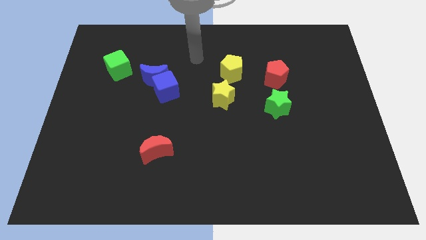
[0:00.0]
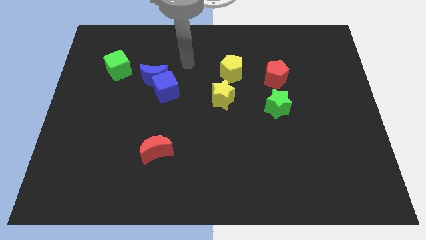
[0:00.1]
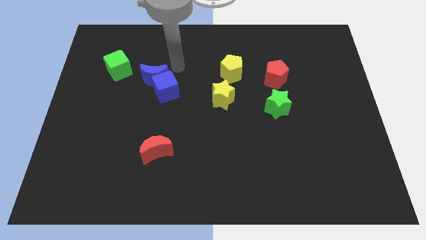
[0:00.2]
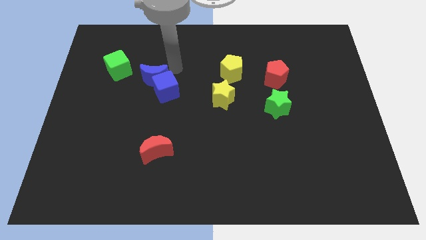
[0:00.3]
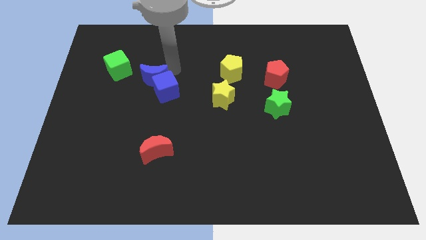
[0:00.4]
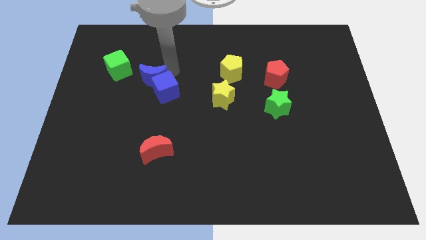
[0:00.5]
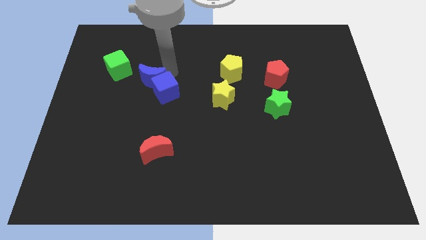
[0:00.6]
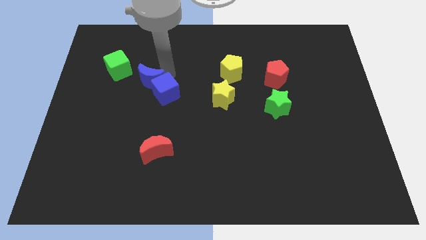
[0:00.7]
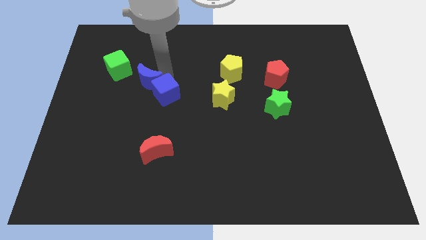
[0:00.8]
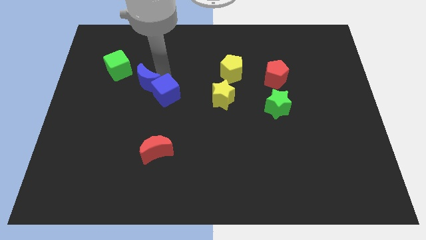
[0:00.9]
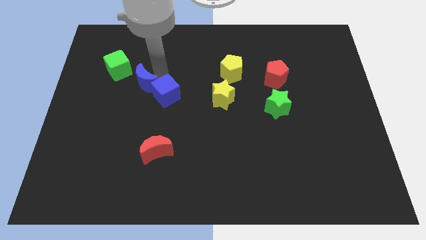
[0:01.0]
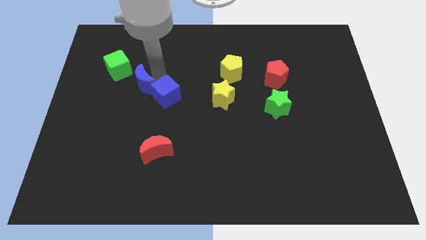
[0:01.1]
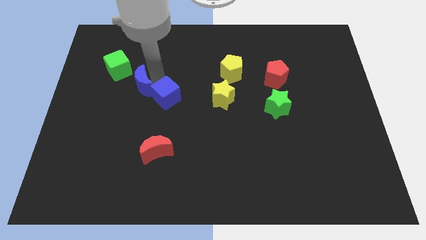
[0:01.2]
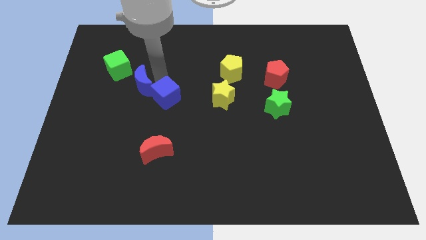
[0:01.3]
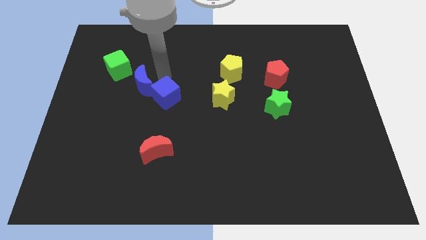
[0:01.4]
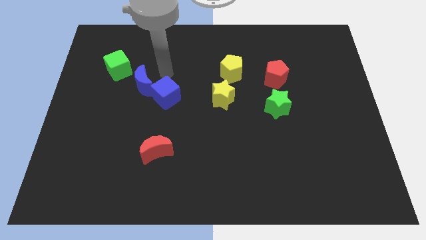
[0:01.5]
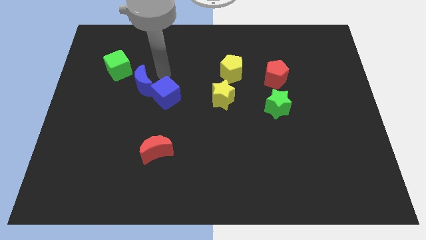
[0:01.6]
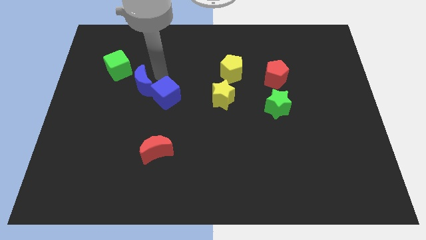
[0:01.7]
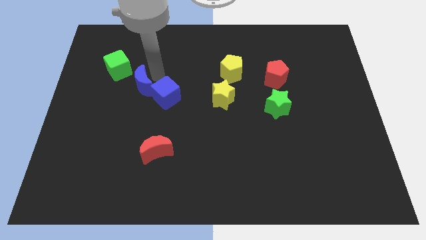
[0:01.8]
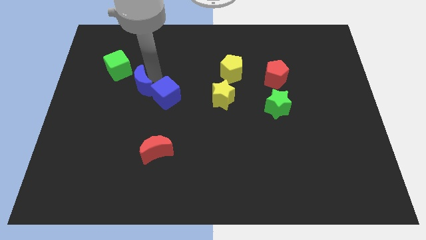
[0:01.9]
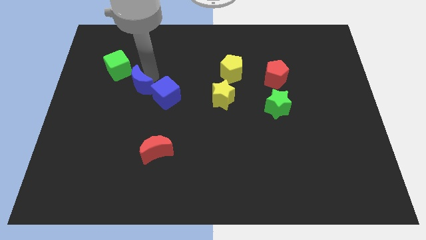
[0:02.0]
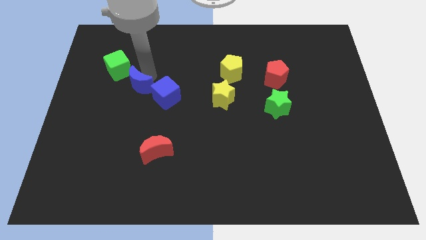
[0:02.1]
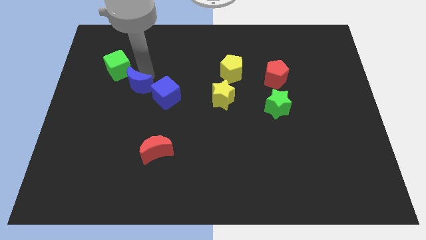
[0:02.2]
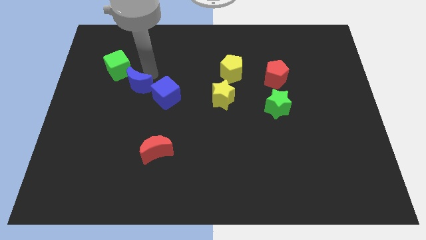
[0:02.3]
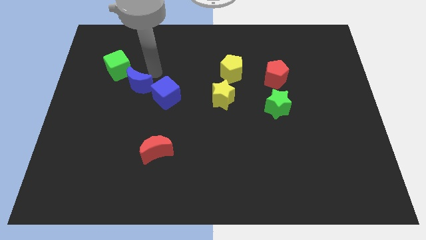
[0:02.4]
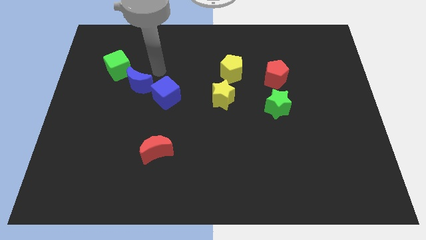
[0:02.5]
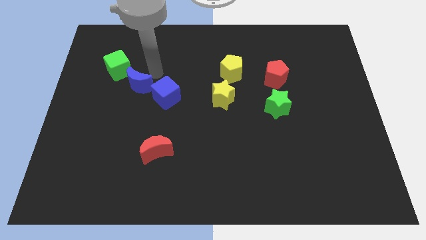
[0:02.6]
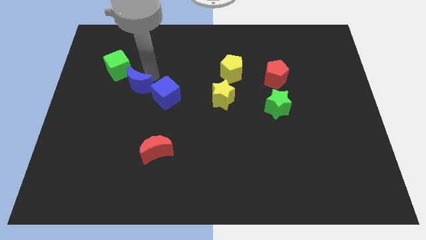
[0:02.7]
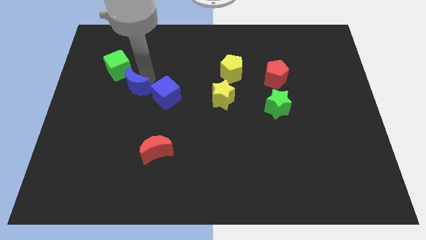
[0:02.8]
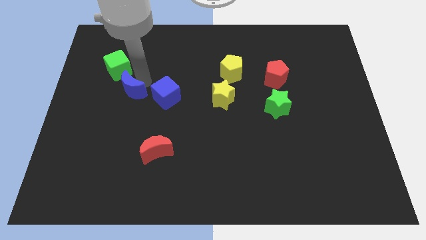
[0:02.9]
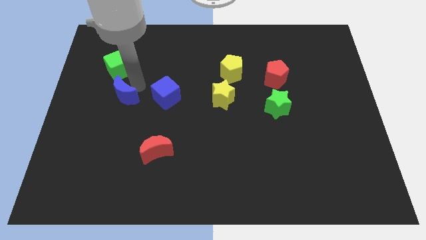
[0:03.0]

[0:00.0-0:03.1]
slightly push the blue moon downwards and left diagonally

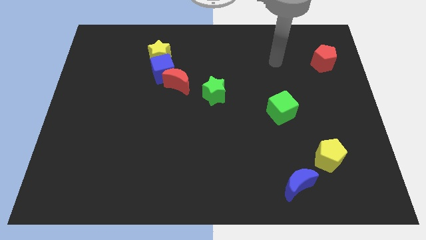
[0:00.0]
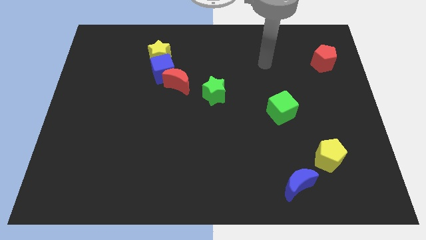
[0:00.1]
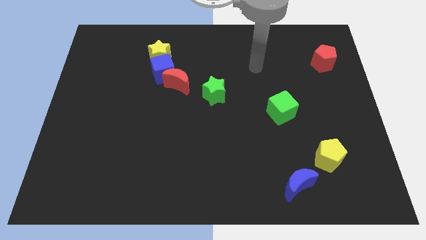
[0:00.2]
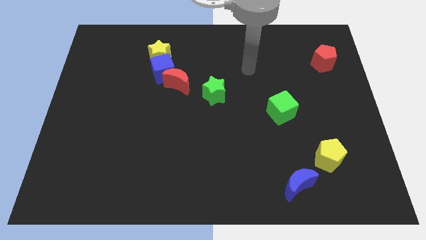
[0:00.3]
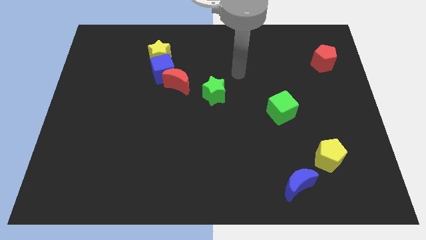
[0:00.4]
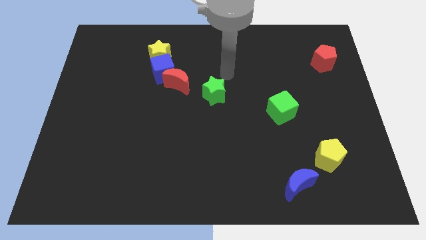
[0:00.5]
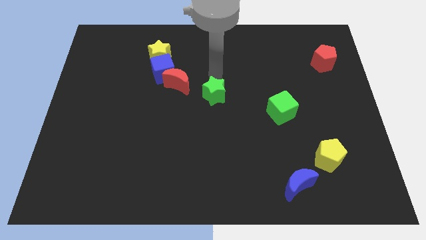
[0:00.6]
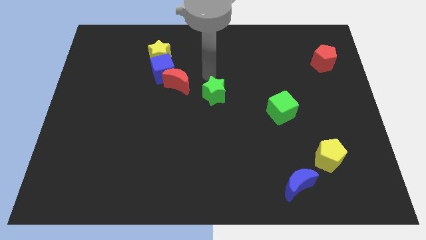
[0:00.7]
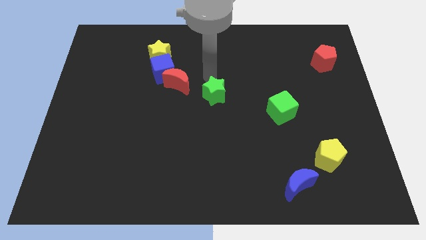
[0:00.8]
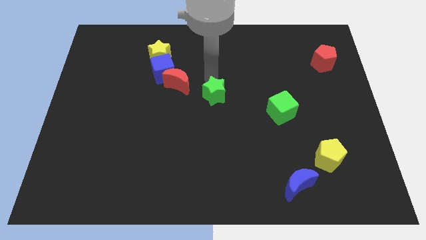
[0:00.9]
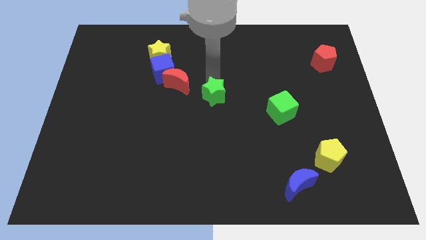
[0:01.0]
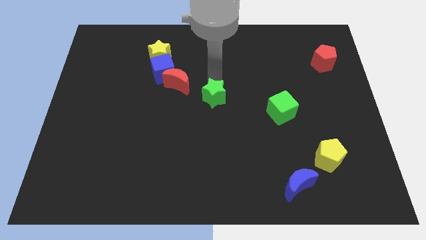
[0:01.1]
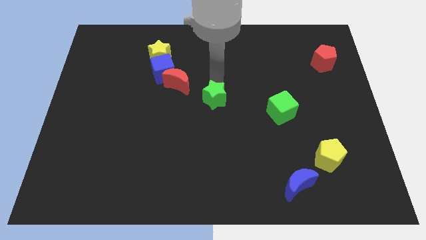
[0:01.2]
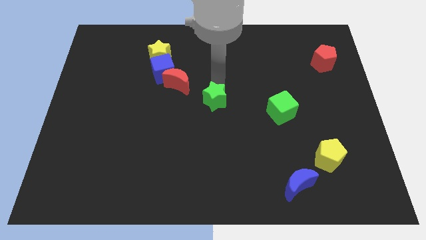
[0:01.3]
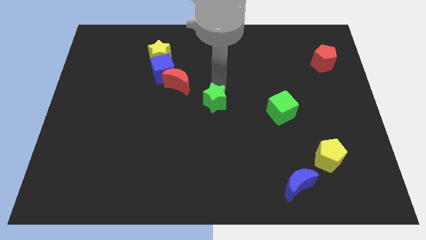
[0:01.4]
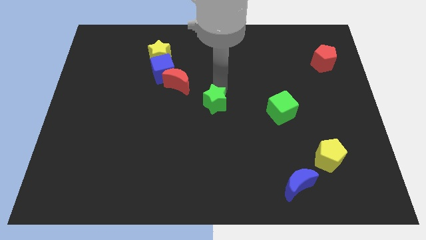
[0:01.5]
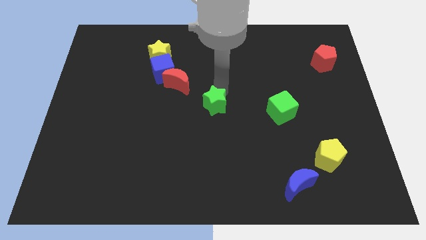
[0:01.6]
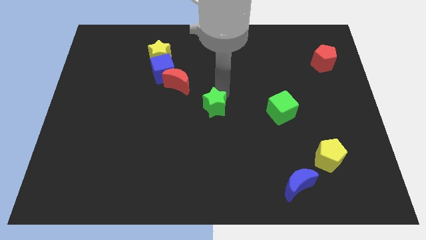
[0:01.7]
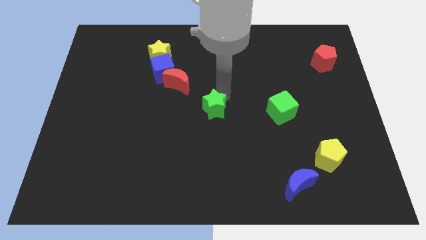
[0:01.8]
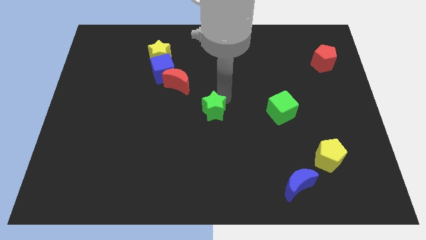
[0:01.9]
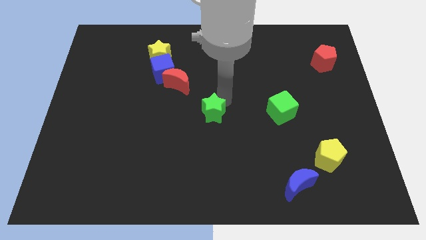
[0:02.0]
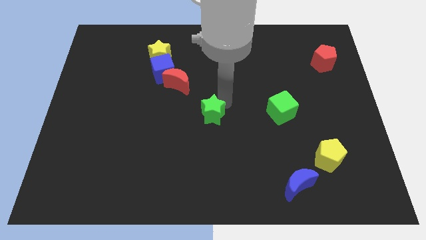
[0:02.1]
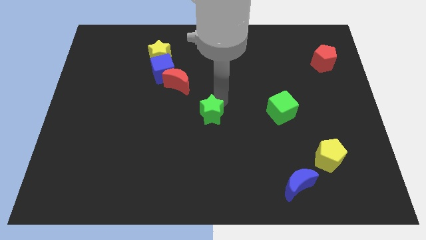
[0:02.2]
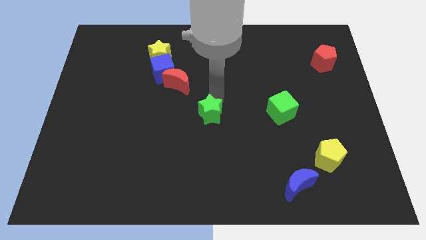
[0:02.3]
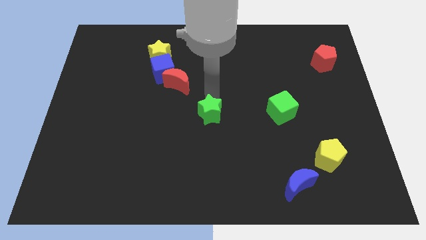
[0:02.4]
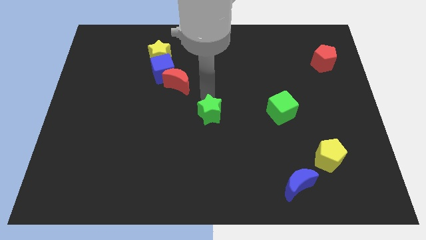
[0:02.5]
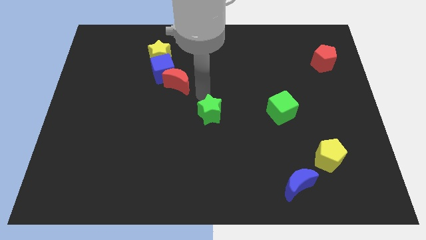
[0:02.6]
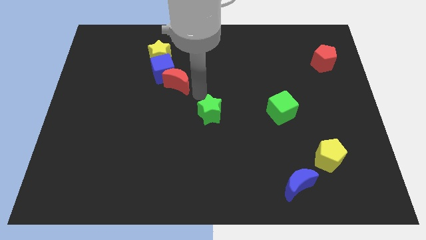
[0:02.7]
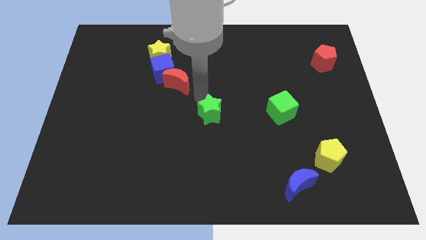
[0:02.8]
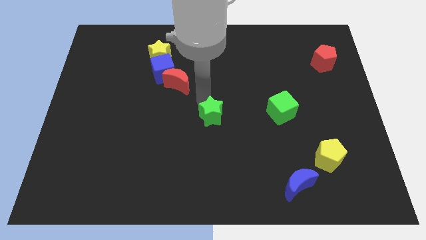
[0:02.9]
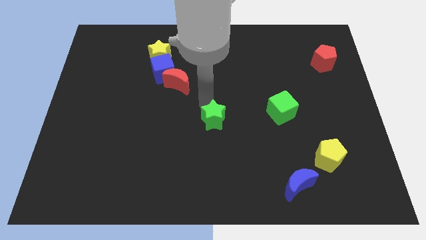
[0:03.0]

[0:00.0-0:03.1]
push the green star downwards a little

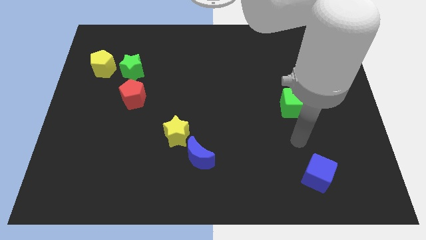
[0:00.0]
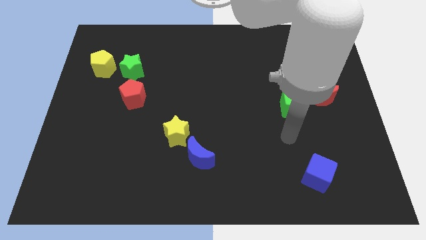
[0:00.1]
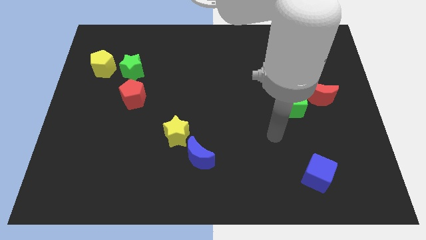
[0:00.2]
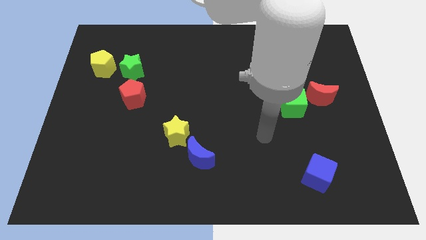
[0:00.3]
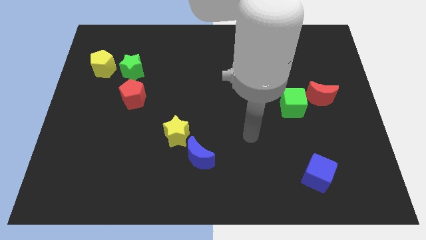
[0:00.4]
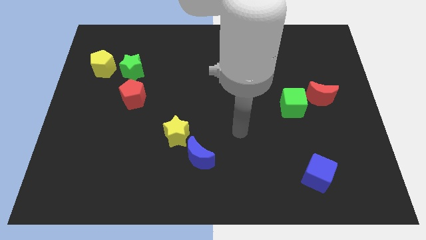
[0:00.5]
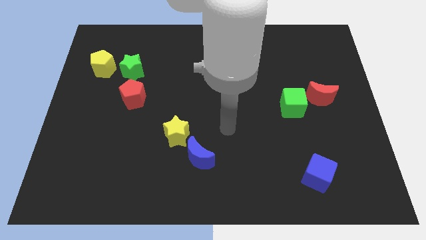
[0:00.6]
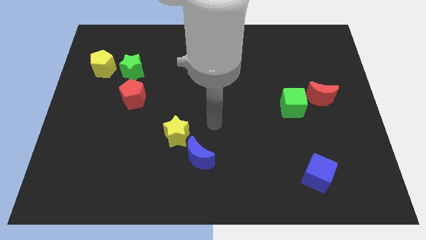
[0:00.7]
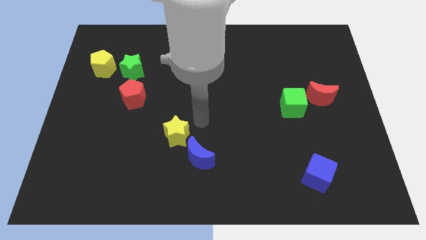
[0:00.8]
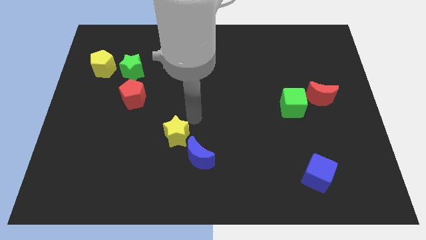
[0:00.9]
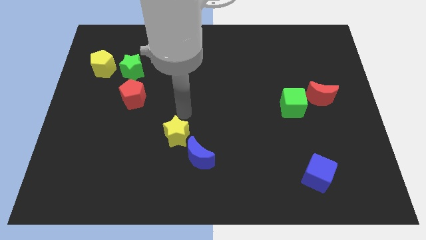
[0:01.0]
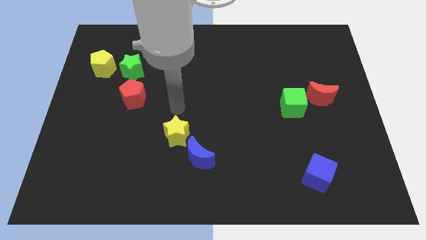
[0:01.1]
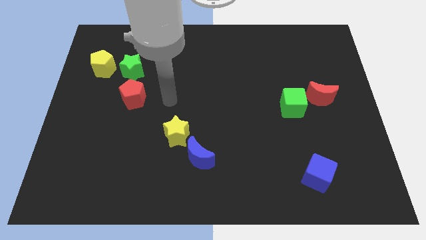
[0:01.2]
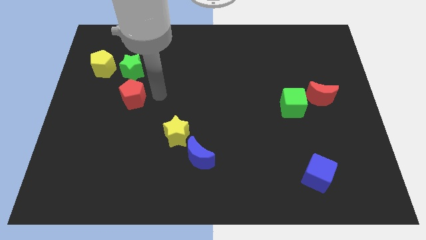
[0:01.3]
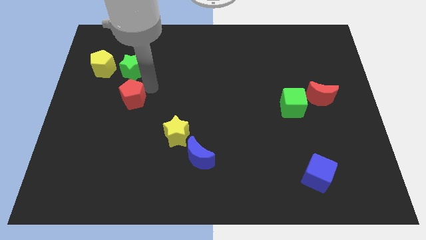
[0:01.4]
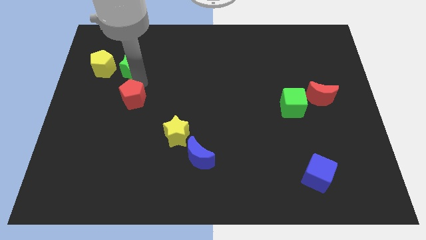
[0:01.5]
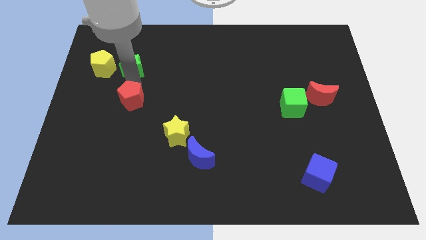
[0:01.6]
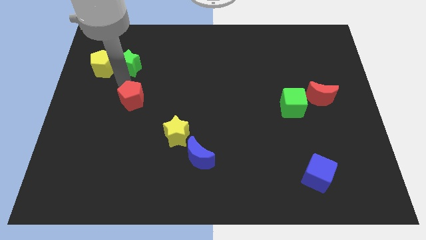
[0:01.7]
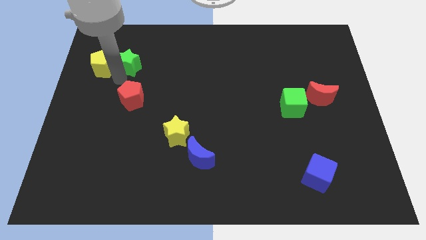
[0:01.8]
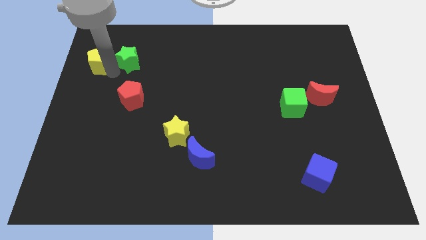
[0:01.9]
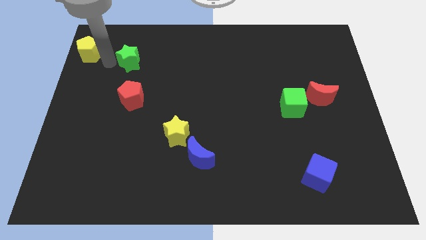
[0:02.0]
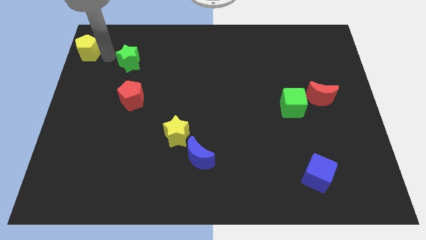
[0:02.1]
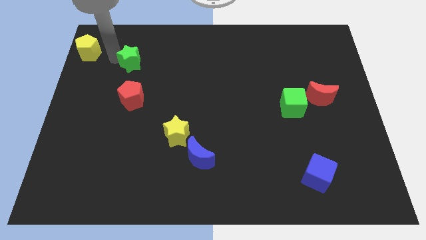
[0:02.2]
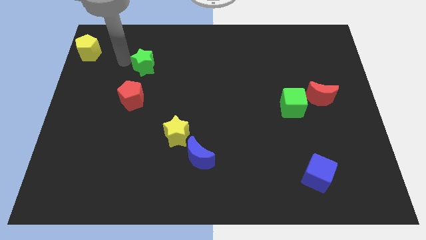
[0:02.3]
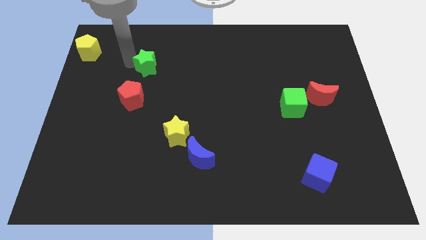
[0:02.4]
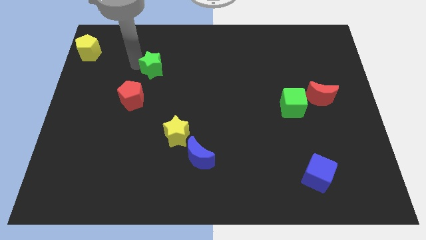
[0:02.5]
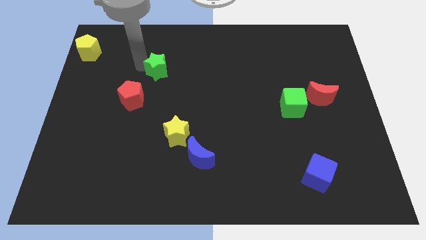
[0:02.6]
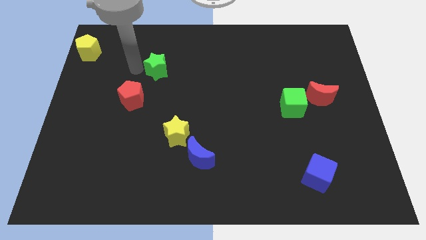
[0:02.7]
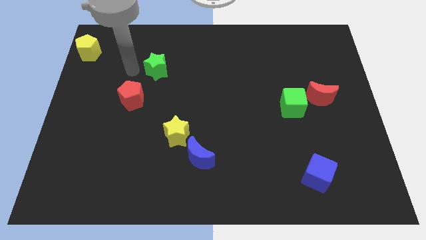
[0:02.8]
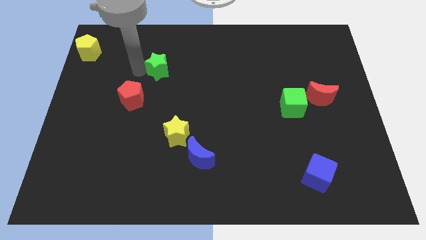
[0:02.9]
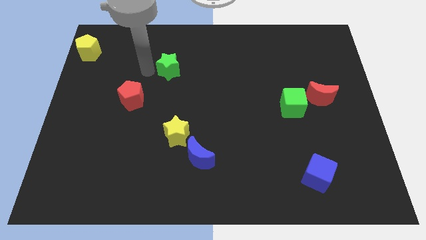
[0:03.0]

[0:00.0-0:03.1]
push the green star a little to the right
